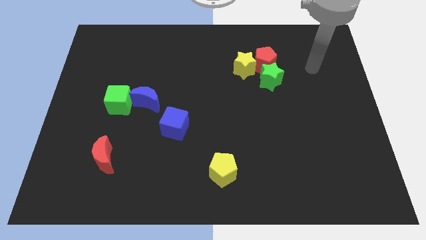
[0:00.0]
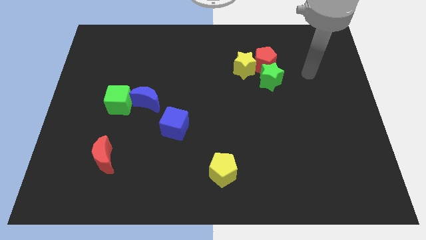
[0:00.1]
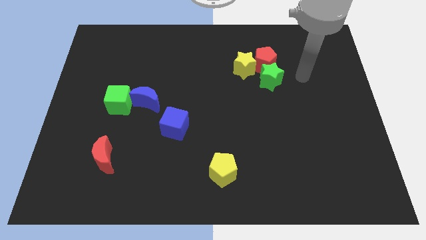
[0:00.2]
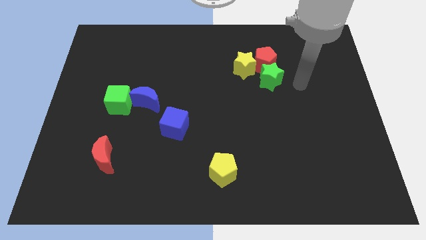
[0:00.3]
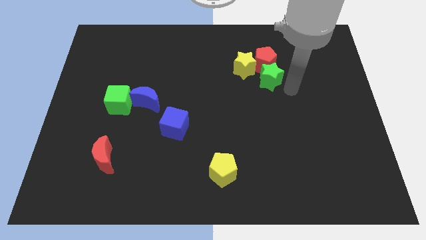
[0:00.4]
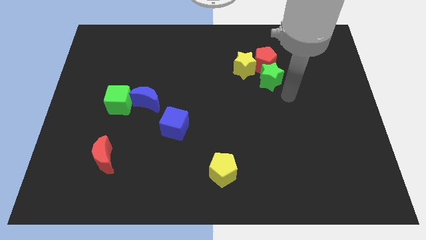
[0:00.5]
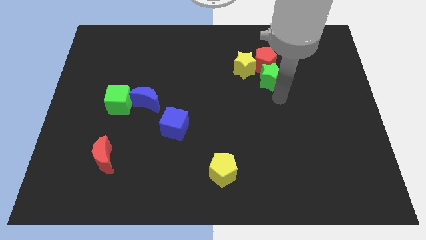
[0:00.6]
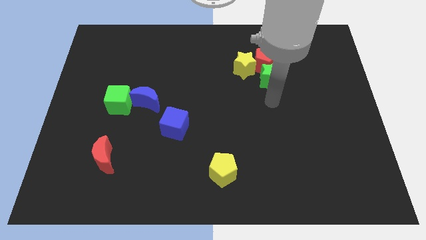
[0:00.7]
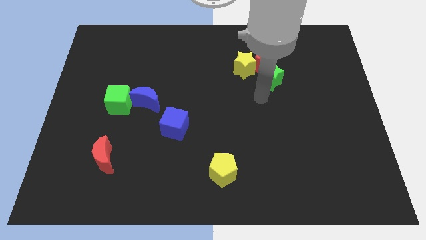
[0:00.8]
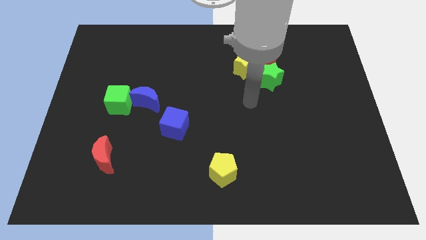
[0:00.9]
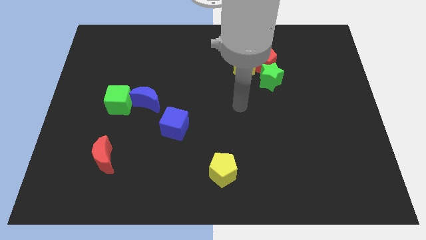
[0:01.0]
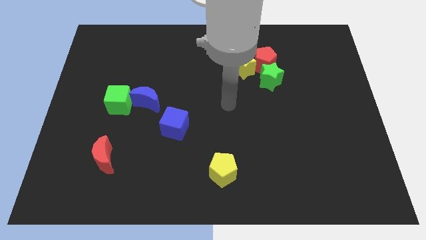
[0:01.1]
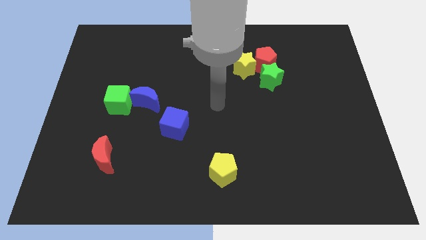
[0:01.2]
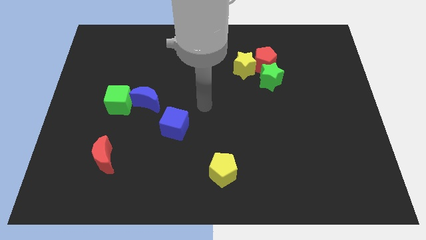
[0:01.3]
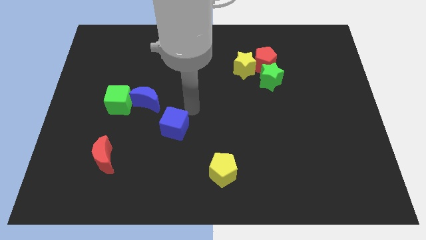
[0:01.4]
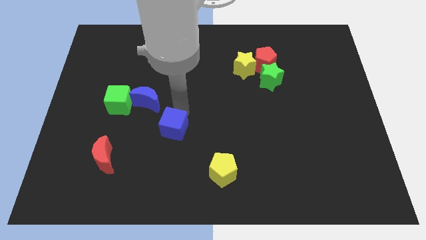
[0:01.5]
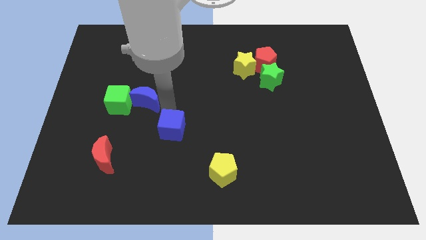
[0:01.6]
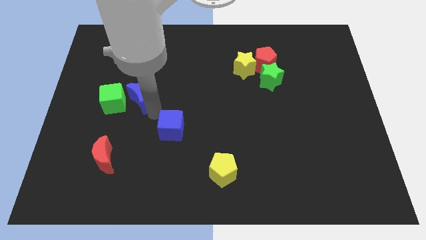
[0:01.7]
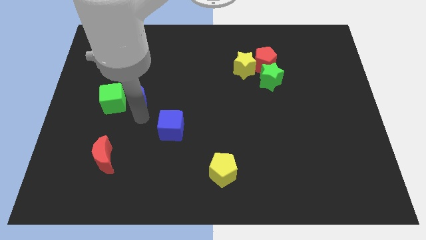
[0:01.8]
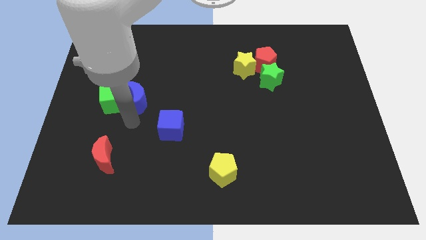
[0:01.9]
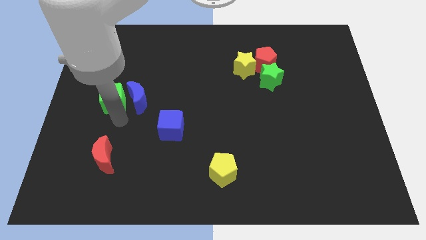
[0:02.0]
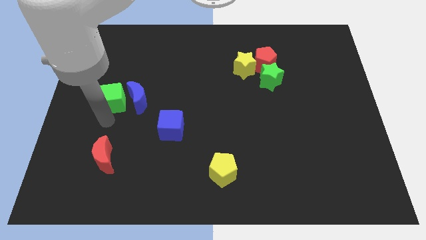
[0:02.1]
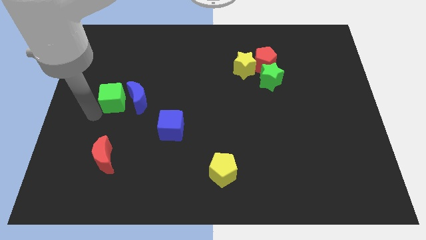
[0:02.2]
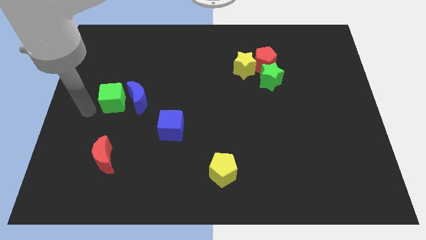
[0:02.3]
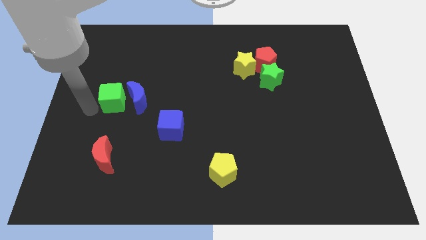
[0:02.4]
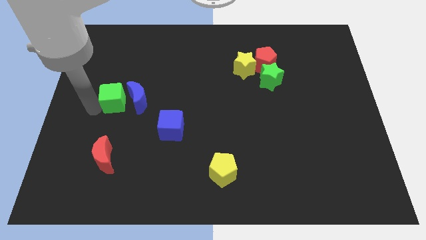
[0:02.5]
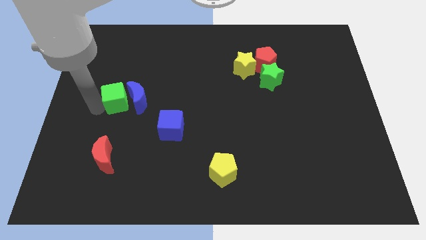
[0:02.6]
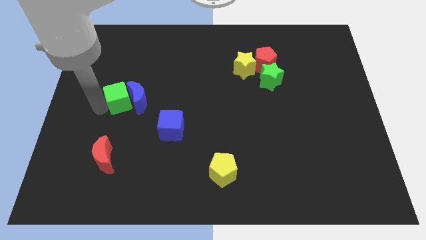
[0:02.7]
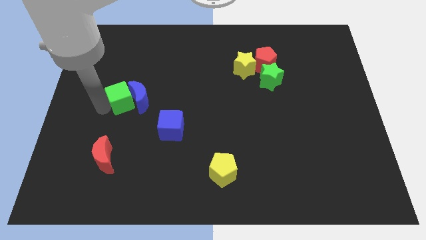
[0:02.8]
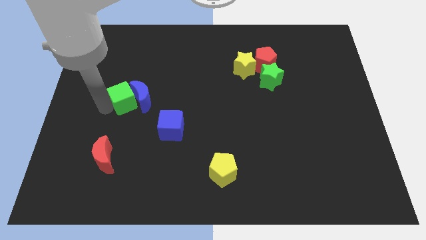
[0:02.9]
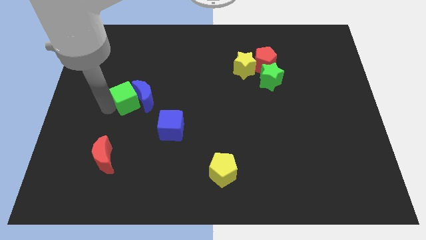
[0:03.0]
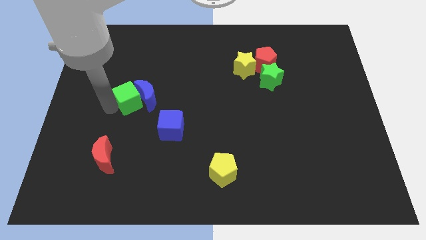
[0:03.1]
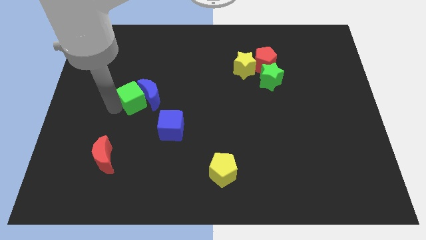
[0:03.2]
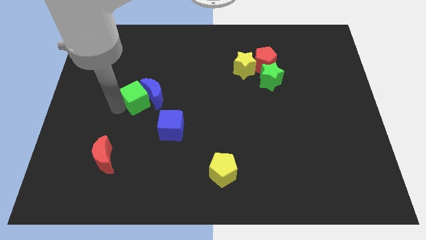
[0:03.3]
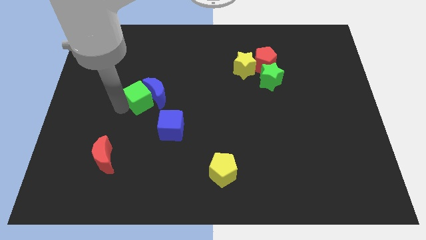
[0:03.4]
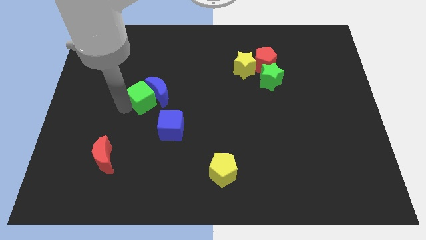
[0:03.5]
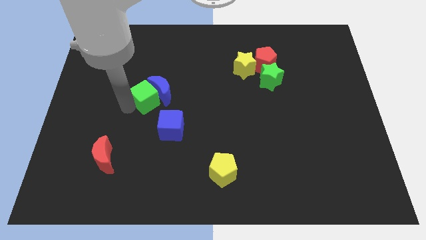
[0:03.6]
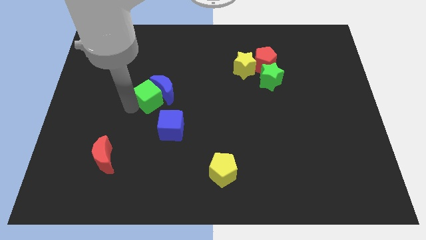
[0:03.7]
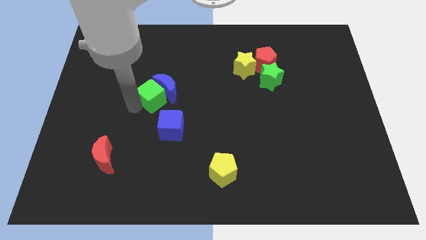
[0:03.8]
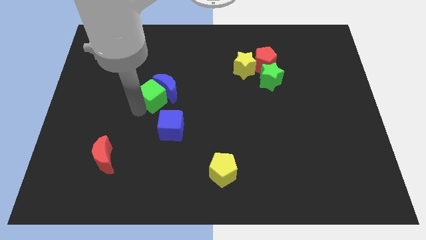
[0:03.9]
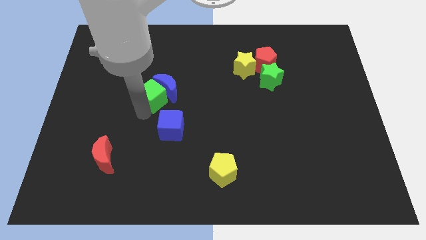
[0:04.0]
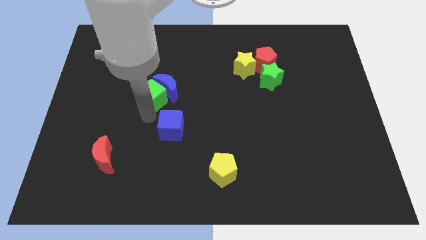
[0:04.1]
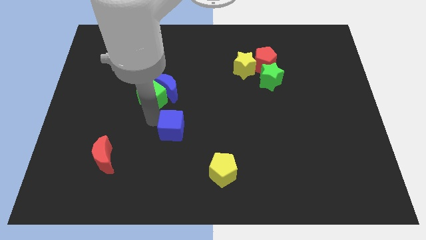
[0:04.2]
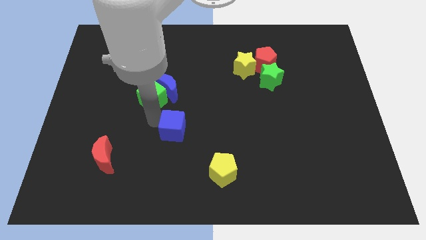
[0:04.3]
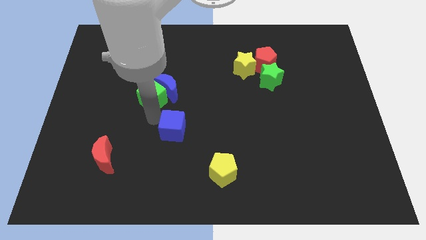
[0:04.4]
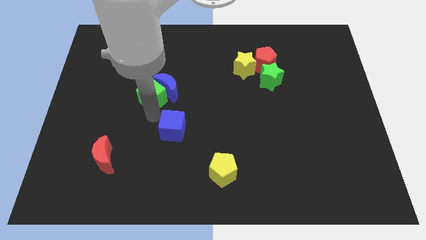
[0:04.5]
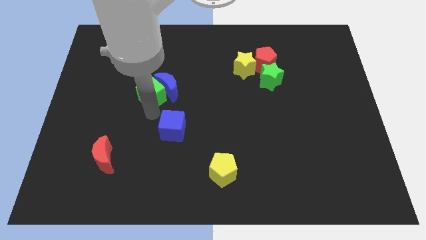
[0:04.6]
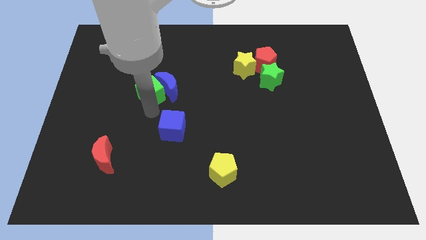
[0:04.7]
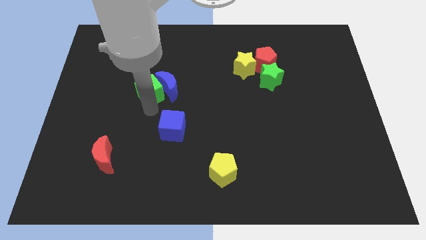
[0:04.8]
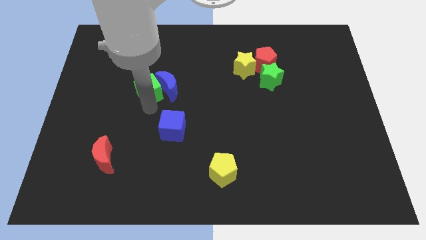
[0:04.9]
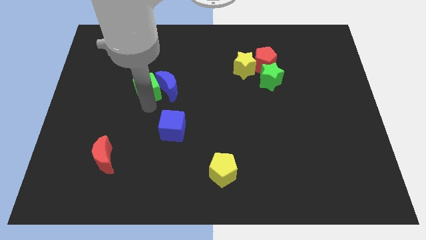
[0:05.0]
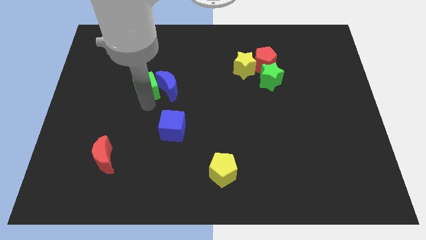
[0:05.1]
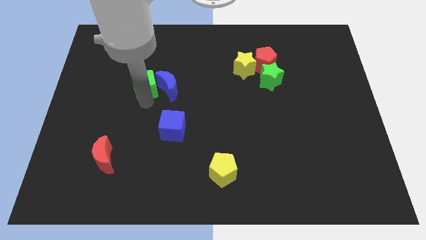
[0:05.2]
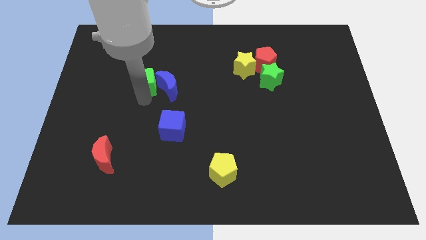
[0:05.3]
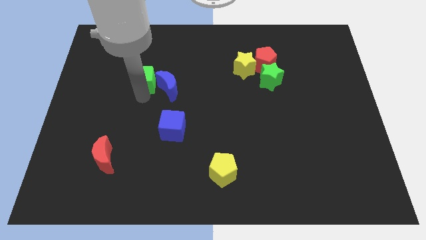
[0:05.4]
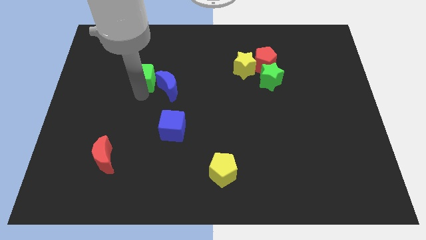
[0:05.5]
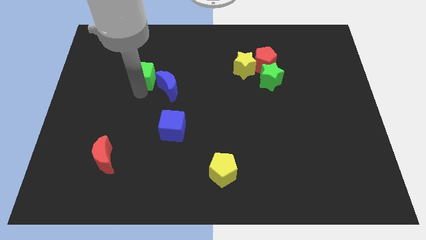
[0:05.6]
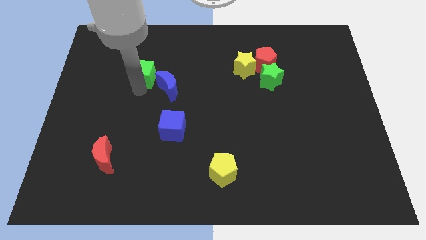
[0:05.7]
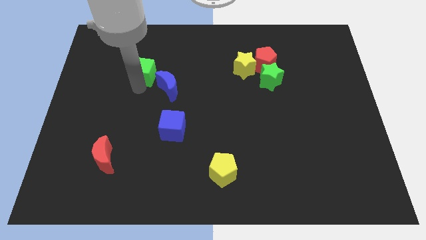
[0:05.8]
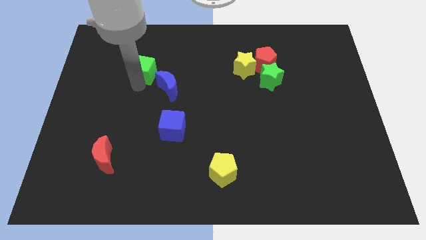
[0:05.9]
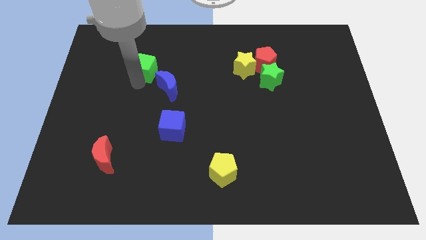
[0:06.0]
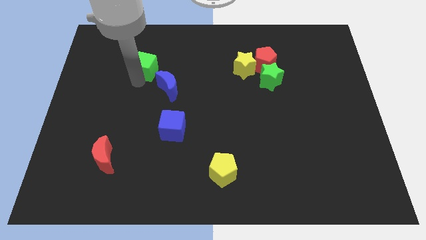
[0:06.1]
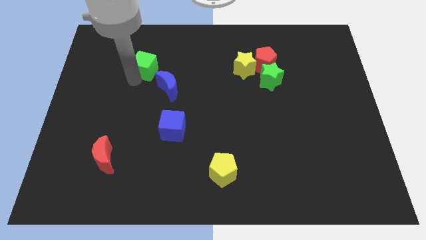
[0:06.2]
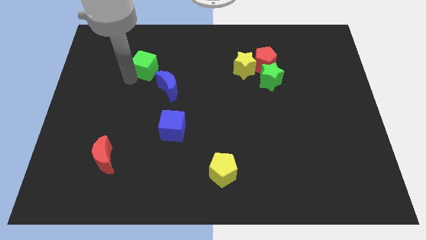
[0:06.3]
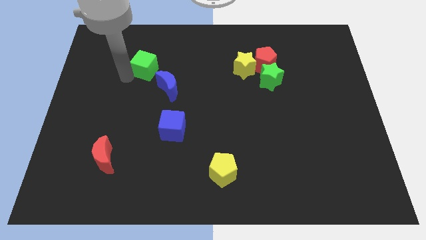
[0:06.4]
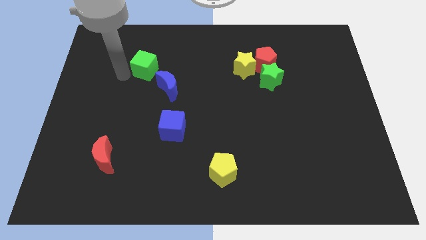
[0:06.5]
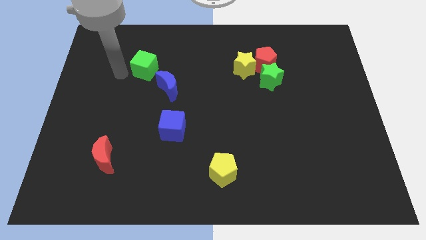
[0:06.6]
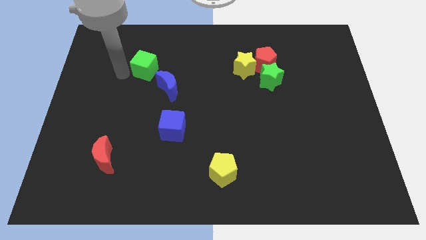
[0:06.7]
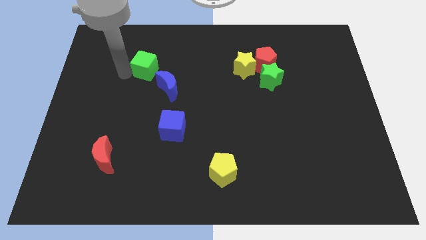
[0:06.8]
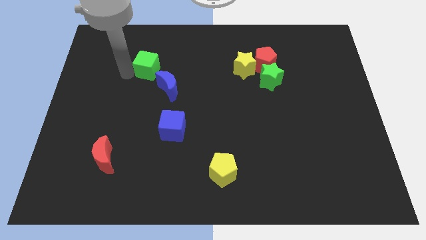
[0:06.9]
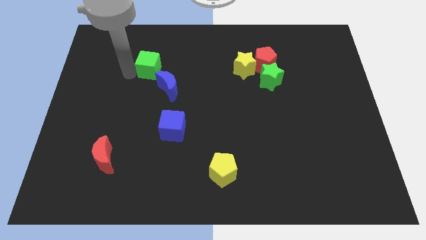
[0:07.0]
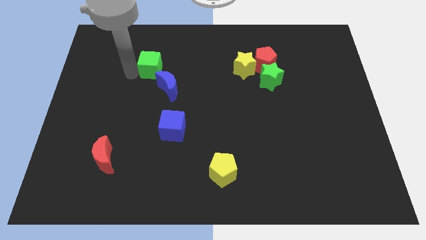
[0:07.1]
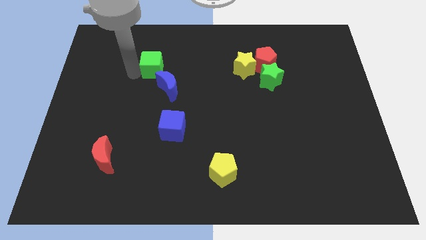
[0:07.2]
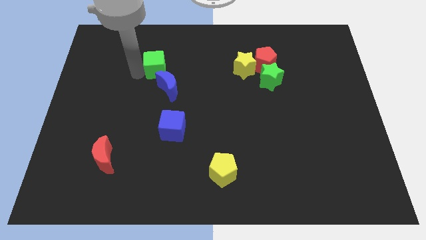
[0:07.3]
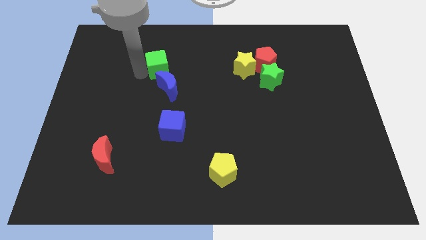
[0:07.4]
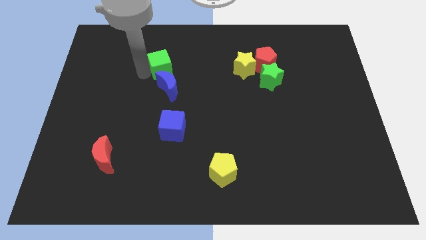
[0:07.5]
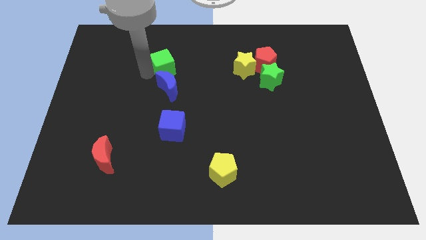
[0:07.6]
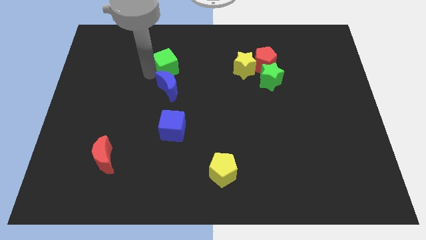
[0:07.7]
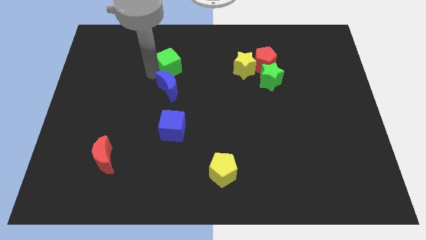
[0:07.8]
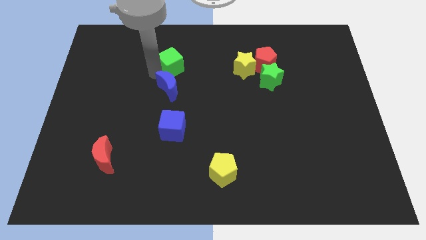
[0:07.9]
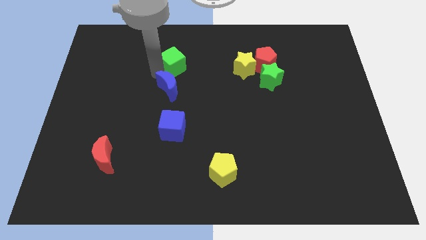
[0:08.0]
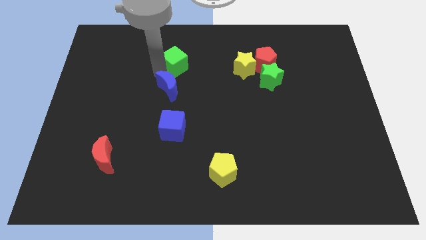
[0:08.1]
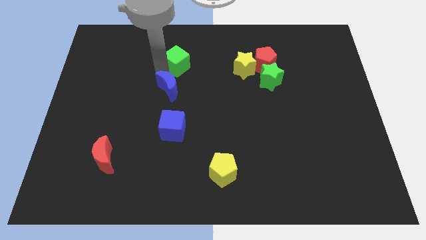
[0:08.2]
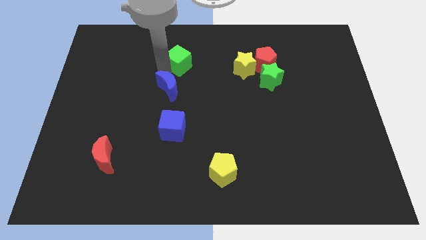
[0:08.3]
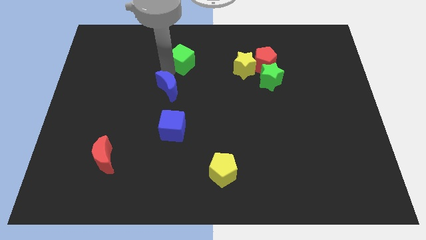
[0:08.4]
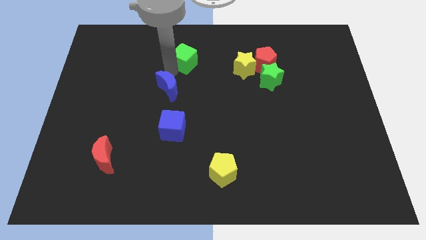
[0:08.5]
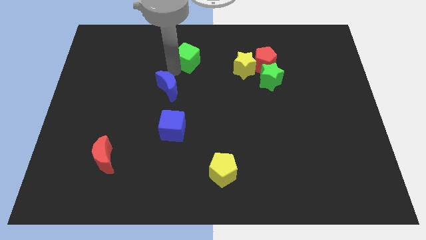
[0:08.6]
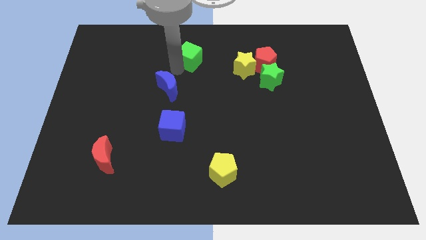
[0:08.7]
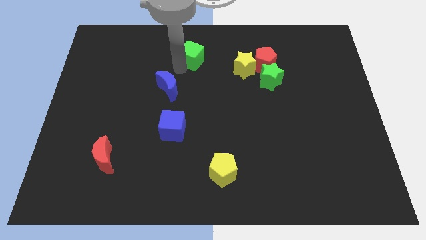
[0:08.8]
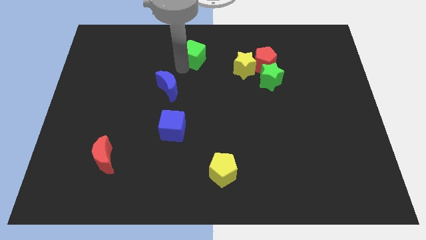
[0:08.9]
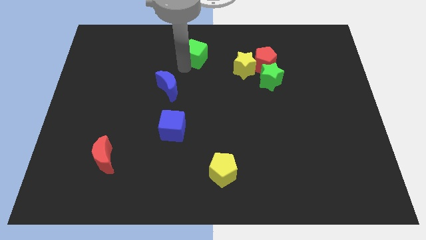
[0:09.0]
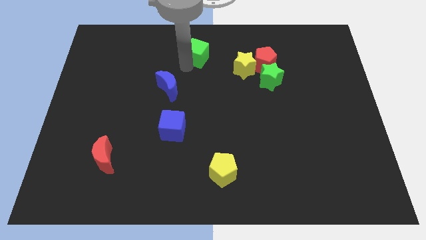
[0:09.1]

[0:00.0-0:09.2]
put the green cube to the towards your base
